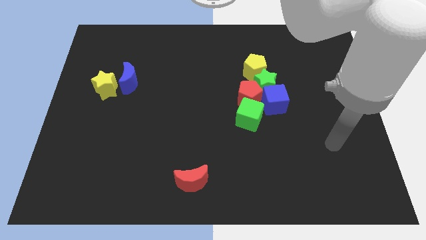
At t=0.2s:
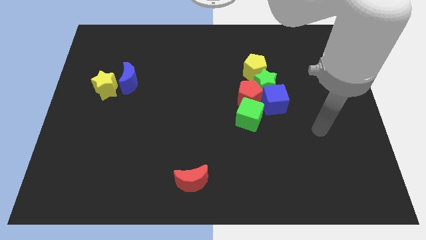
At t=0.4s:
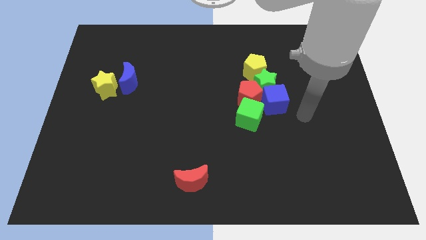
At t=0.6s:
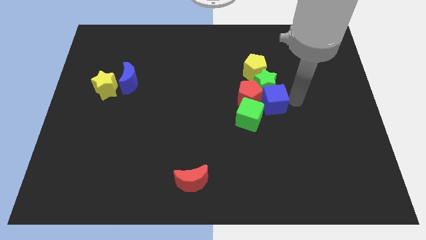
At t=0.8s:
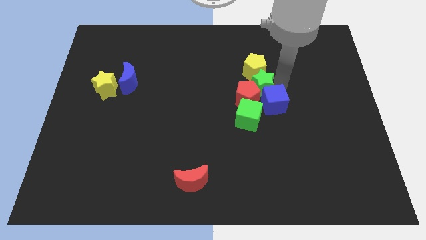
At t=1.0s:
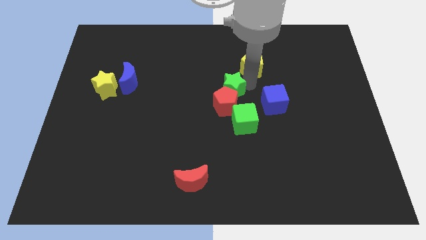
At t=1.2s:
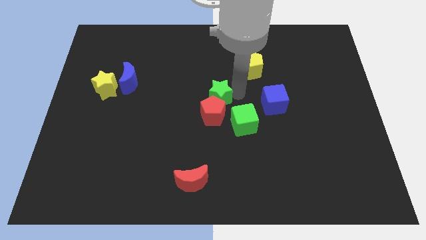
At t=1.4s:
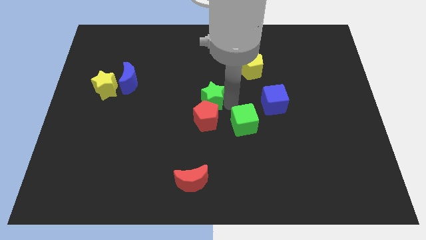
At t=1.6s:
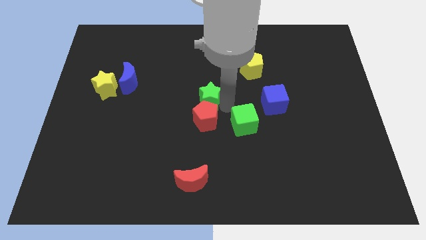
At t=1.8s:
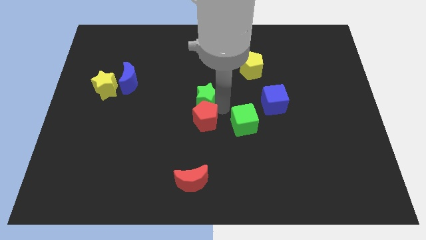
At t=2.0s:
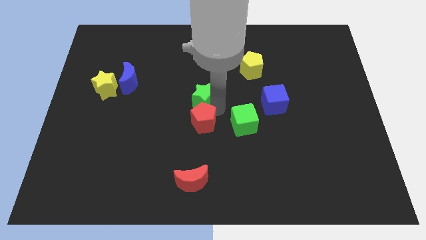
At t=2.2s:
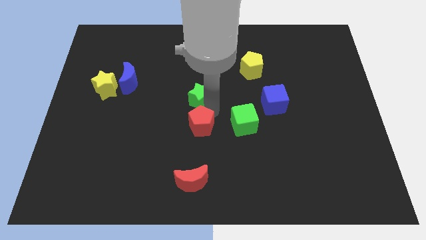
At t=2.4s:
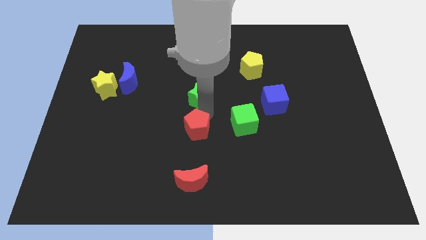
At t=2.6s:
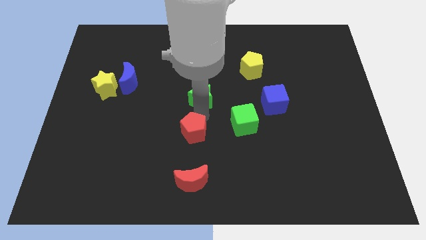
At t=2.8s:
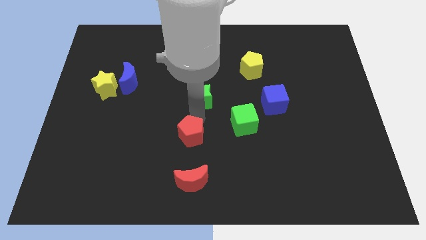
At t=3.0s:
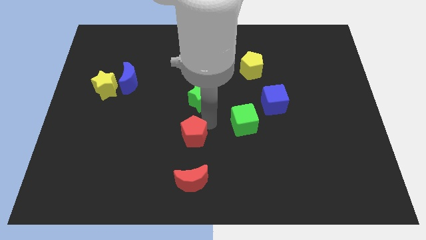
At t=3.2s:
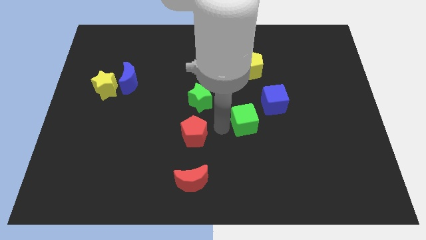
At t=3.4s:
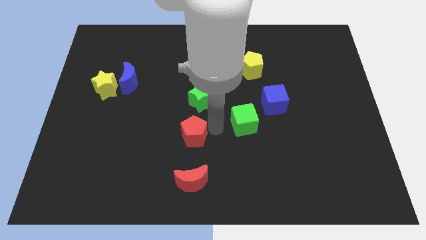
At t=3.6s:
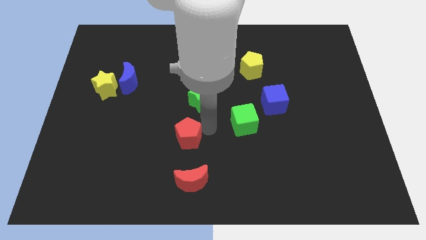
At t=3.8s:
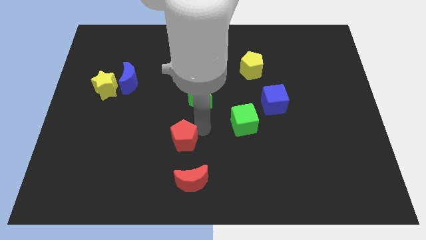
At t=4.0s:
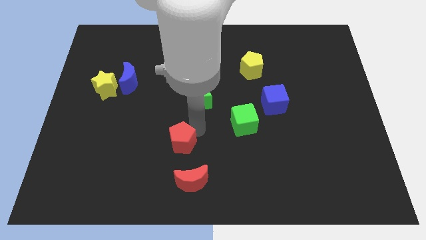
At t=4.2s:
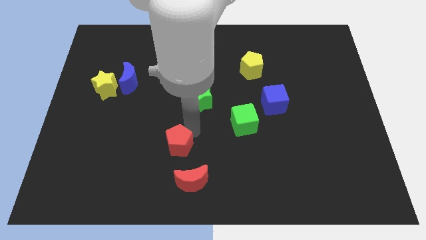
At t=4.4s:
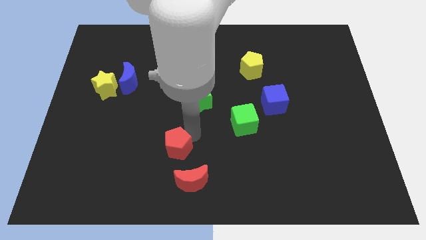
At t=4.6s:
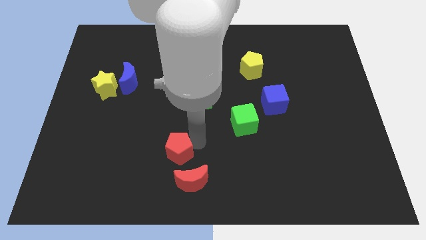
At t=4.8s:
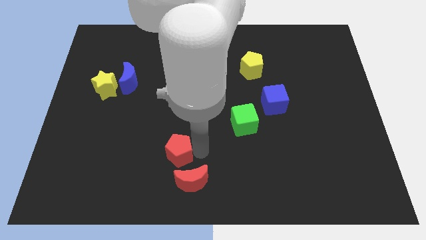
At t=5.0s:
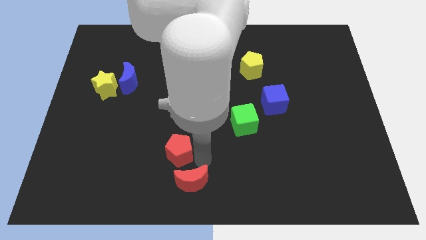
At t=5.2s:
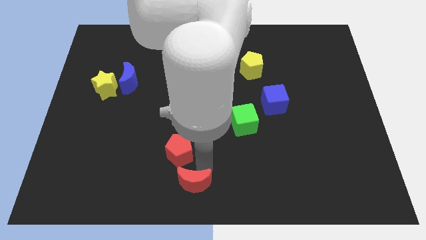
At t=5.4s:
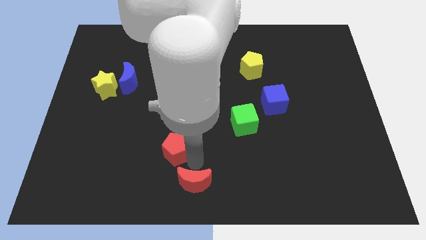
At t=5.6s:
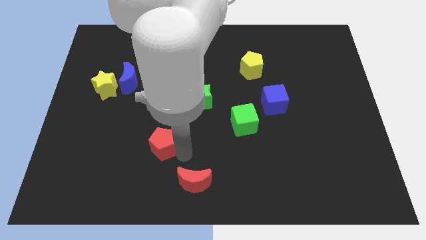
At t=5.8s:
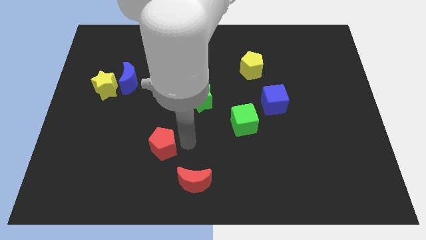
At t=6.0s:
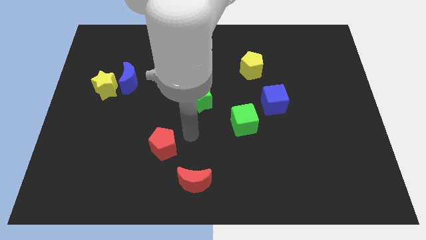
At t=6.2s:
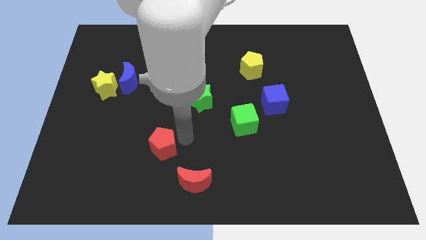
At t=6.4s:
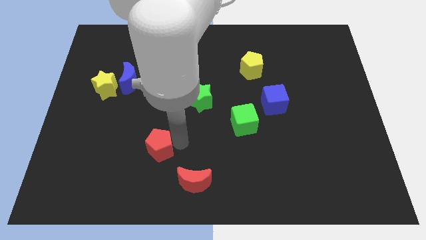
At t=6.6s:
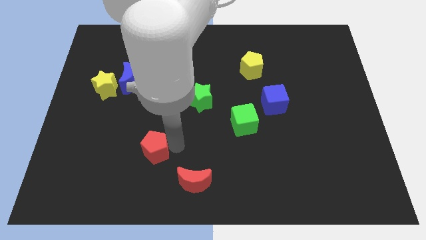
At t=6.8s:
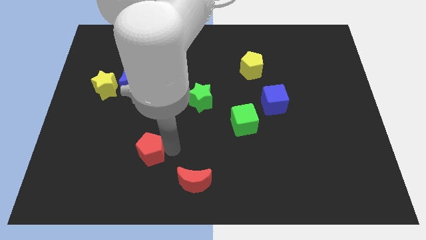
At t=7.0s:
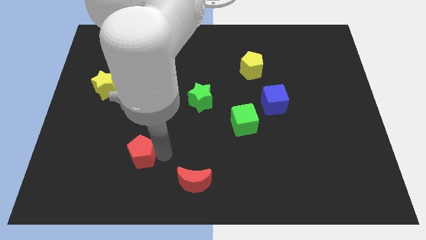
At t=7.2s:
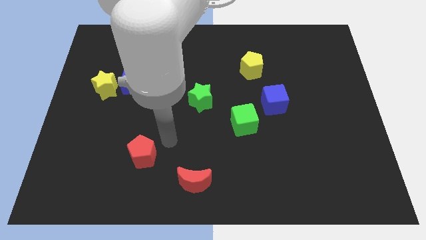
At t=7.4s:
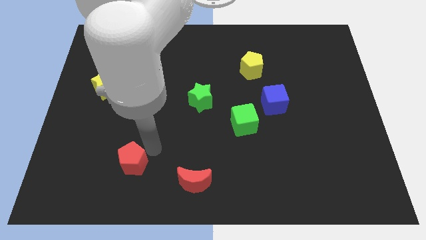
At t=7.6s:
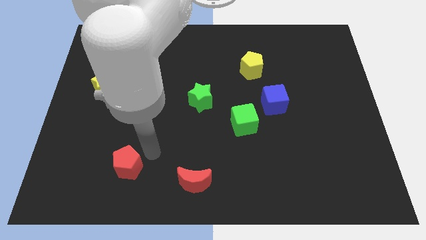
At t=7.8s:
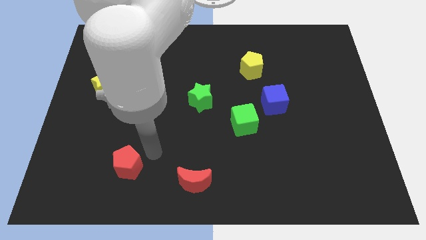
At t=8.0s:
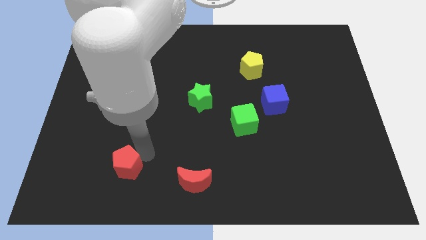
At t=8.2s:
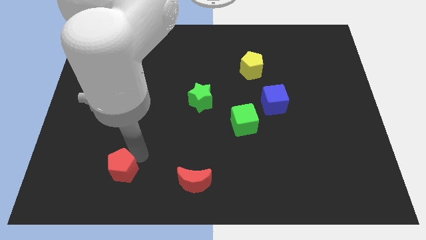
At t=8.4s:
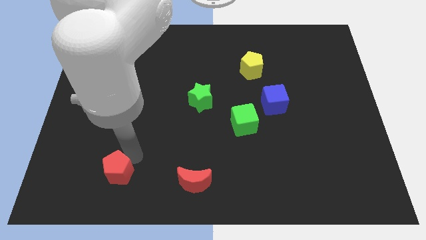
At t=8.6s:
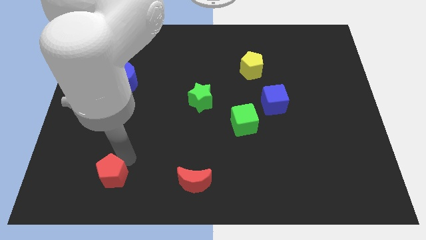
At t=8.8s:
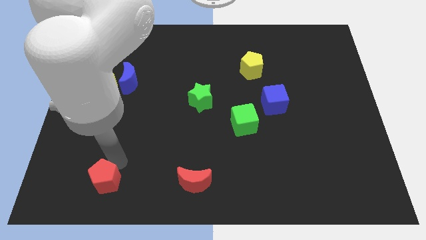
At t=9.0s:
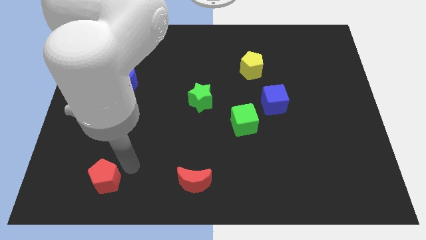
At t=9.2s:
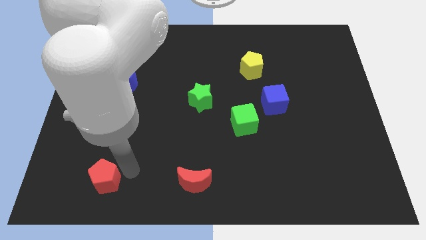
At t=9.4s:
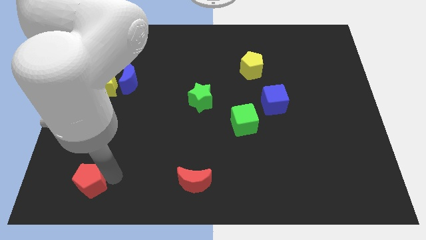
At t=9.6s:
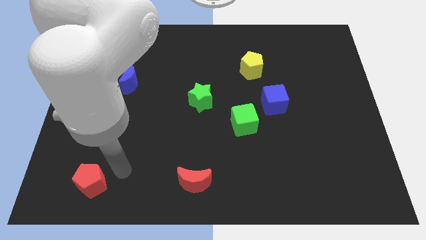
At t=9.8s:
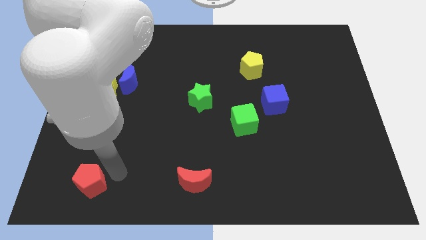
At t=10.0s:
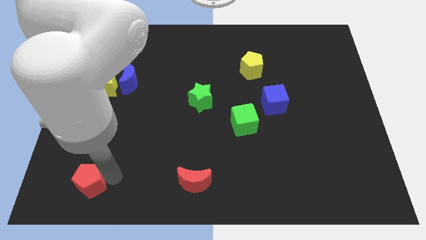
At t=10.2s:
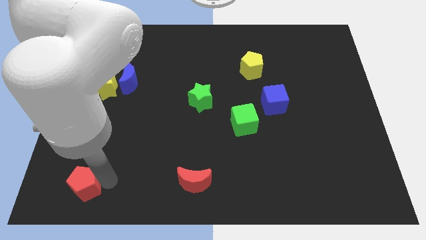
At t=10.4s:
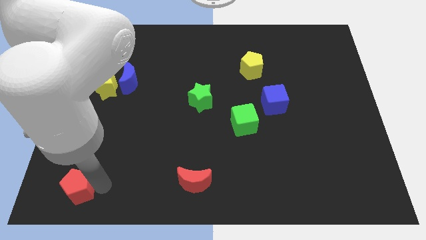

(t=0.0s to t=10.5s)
push the red pentagon to the bottom left corner

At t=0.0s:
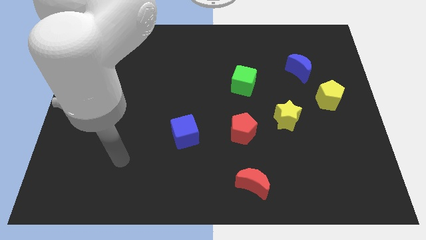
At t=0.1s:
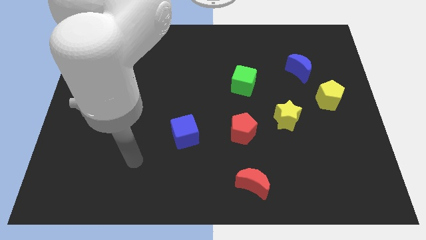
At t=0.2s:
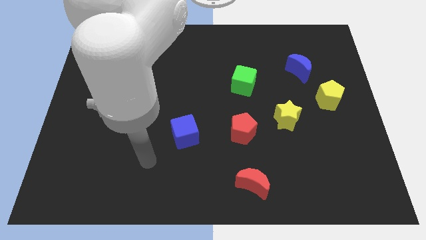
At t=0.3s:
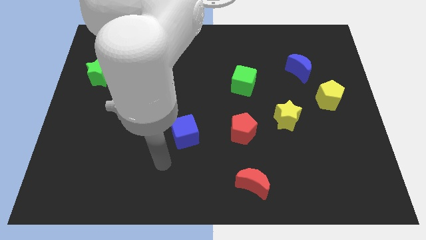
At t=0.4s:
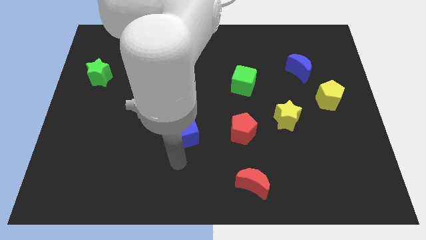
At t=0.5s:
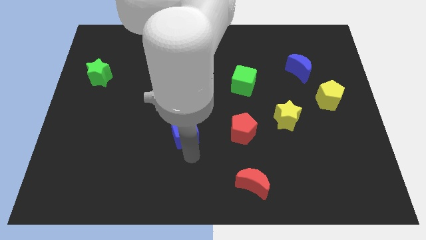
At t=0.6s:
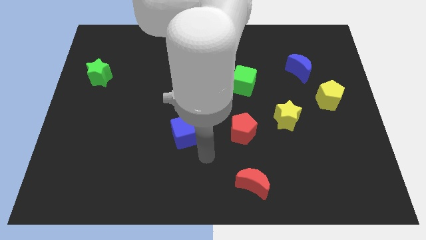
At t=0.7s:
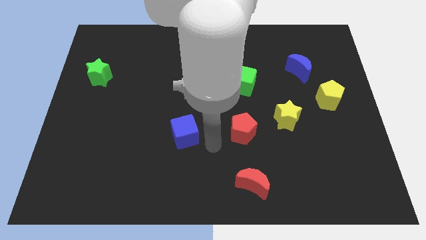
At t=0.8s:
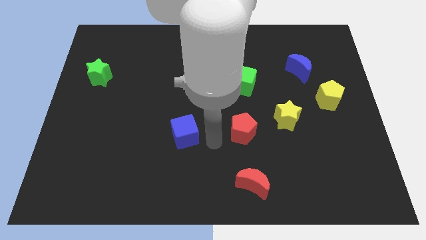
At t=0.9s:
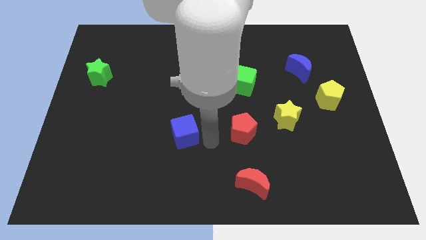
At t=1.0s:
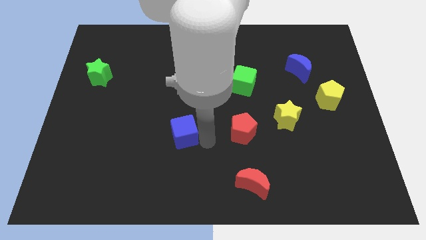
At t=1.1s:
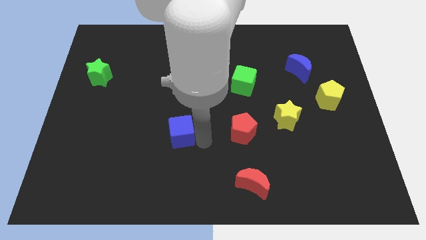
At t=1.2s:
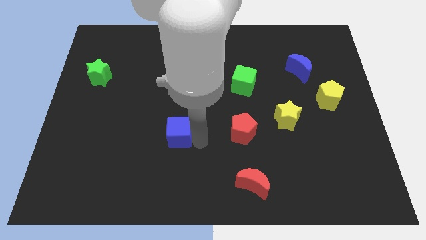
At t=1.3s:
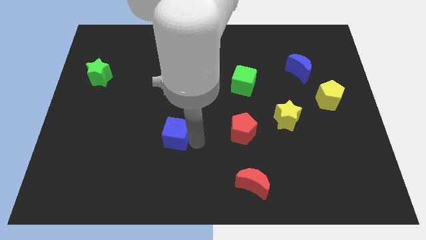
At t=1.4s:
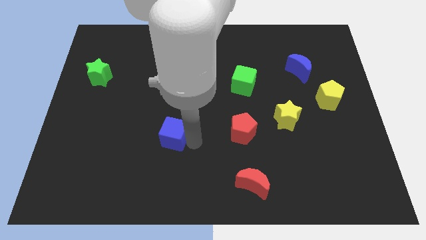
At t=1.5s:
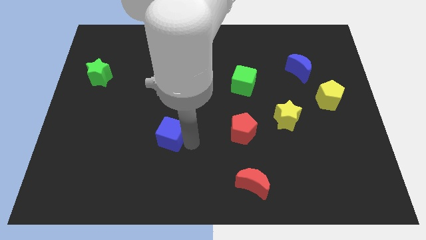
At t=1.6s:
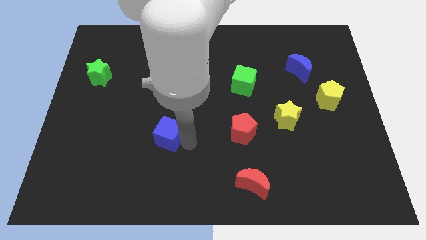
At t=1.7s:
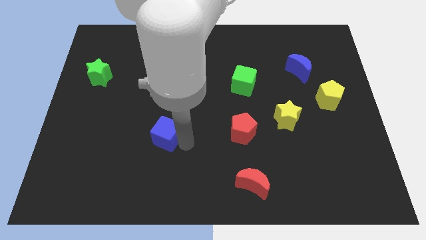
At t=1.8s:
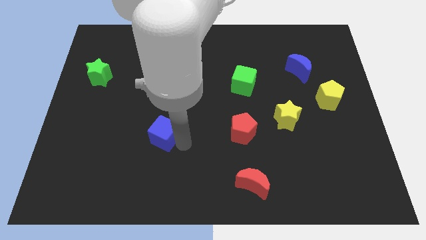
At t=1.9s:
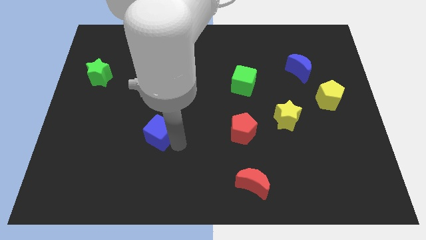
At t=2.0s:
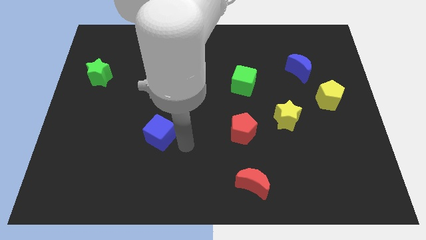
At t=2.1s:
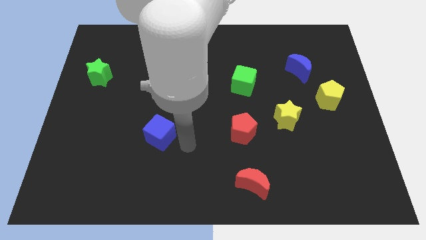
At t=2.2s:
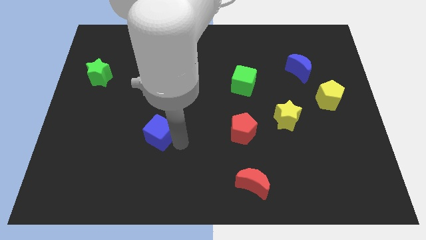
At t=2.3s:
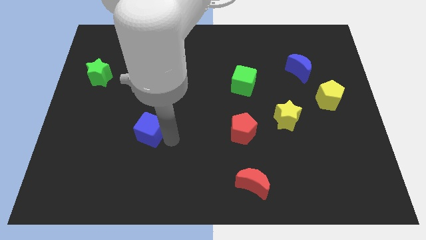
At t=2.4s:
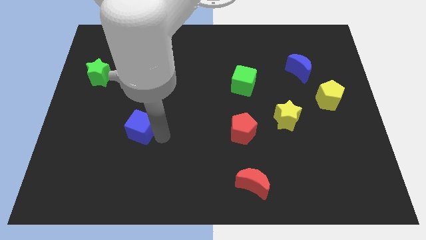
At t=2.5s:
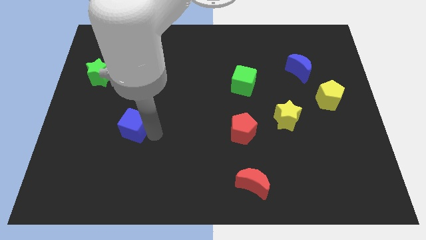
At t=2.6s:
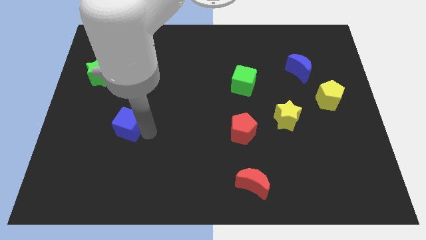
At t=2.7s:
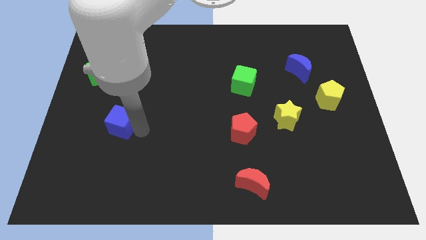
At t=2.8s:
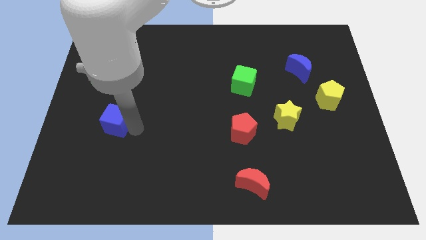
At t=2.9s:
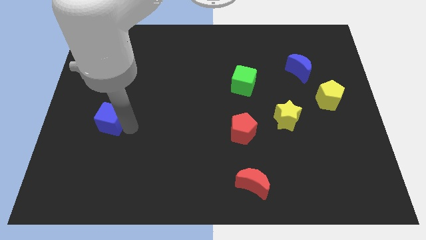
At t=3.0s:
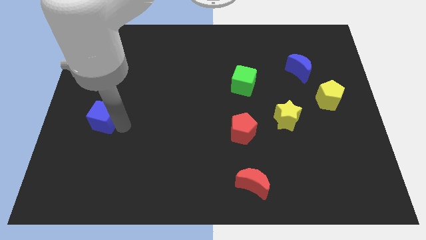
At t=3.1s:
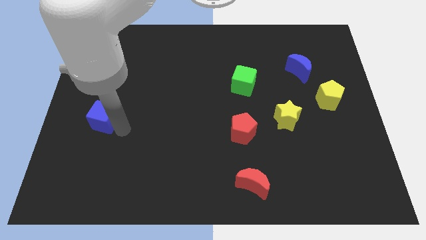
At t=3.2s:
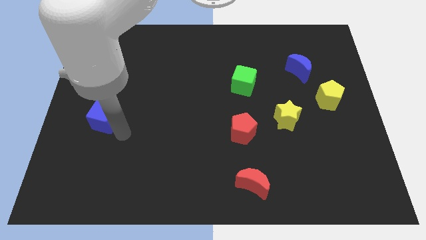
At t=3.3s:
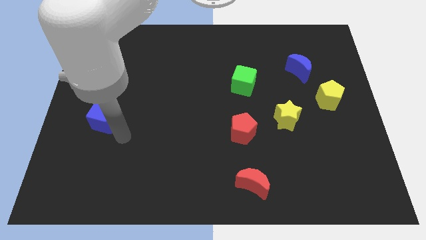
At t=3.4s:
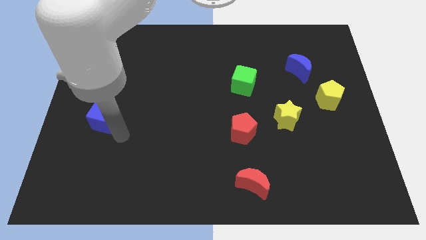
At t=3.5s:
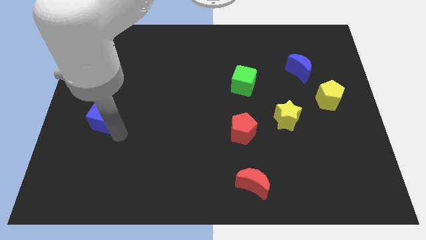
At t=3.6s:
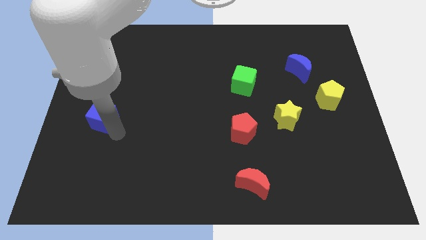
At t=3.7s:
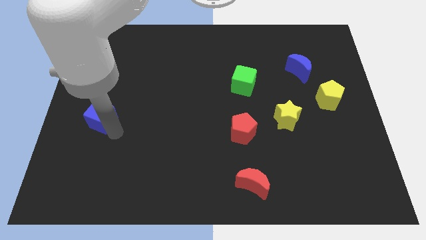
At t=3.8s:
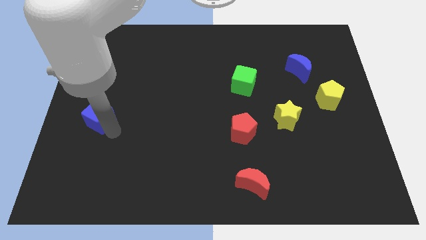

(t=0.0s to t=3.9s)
put the blue cube to the left side
